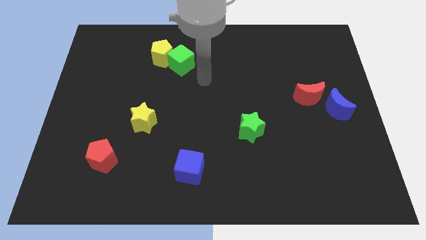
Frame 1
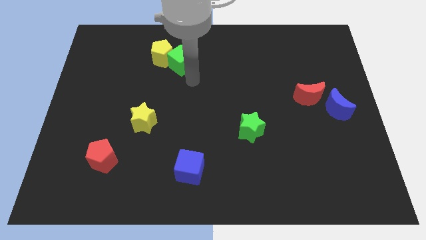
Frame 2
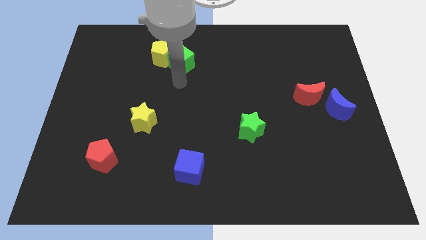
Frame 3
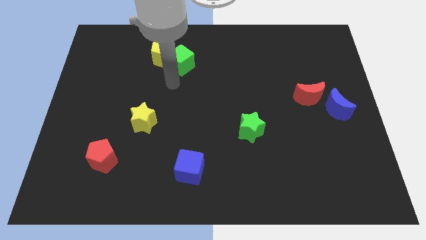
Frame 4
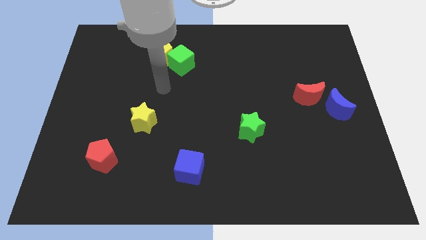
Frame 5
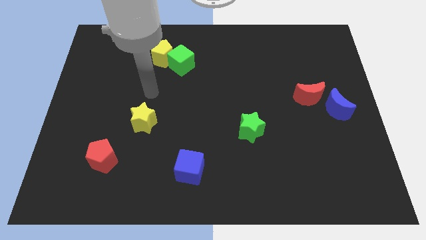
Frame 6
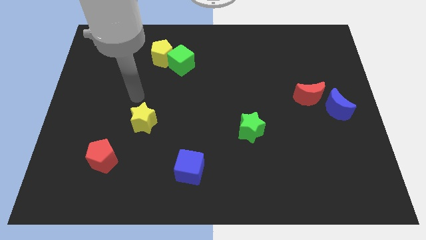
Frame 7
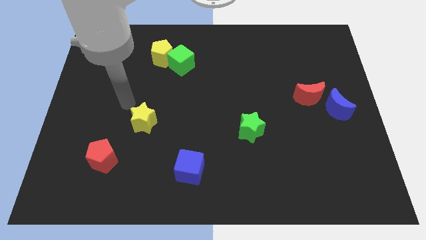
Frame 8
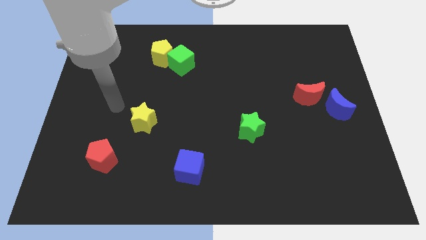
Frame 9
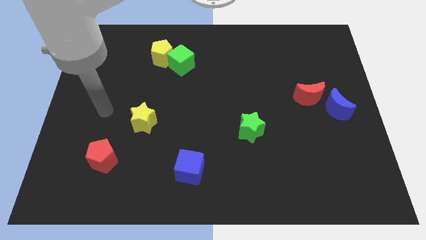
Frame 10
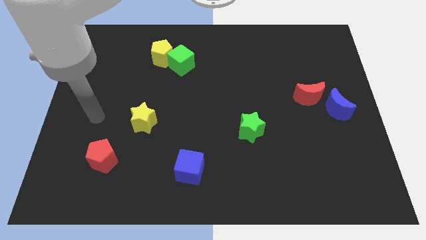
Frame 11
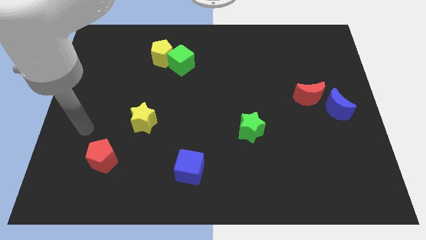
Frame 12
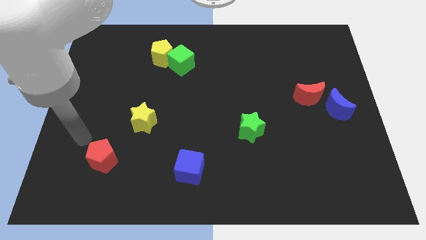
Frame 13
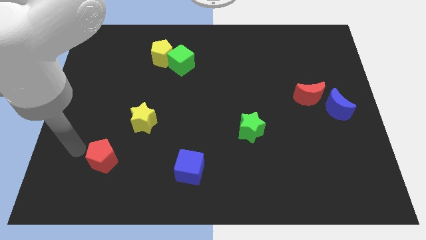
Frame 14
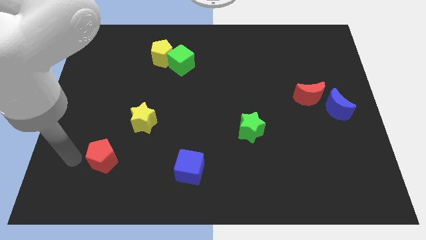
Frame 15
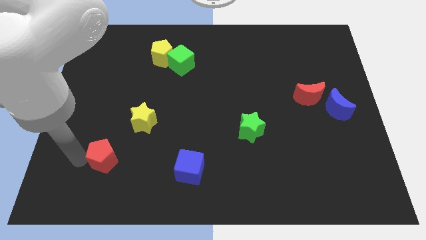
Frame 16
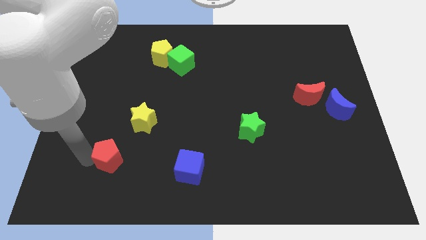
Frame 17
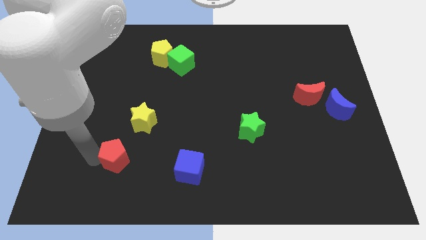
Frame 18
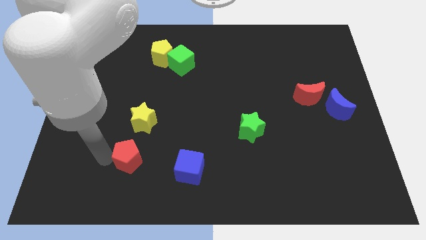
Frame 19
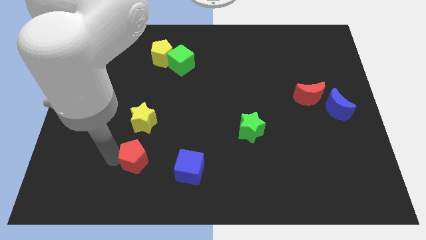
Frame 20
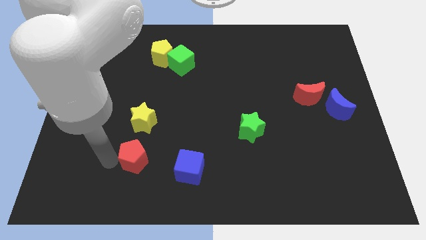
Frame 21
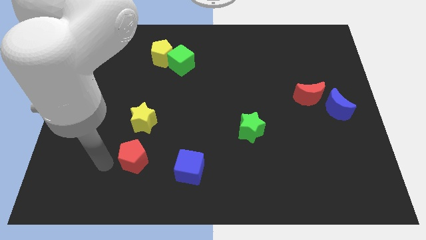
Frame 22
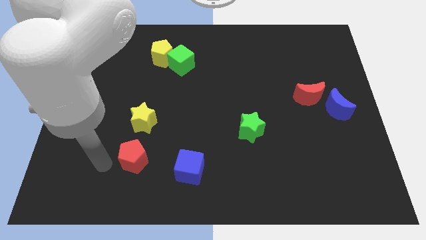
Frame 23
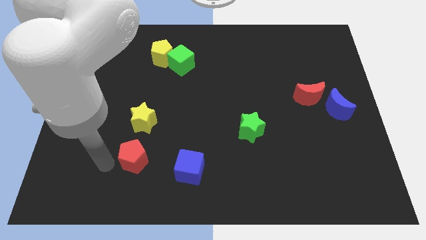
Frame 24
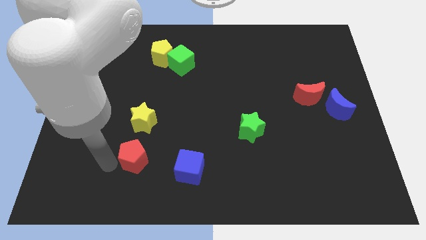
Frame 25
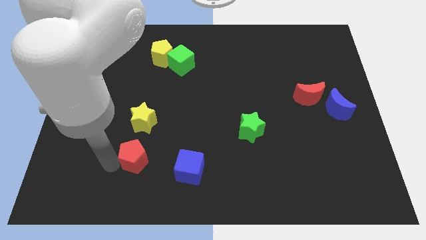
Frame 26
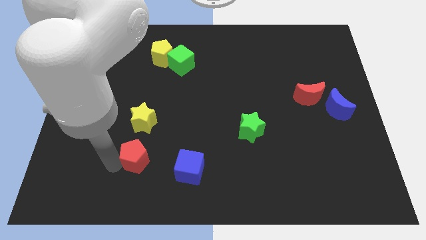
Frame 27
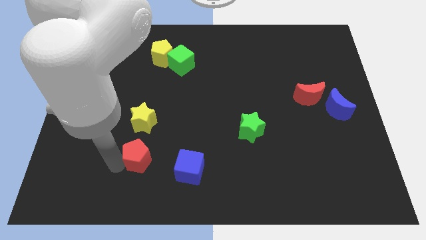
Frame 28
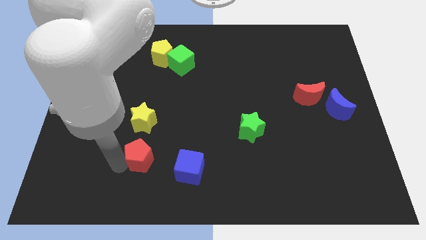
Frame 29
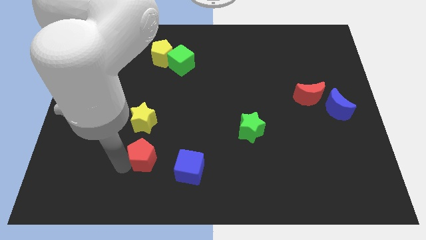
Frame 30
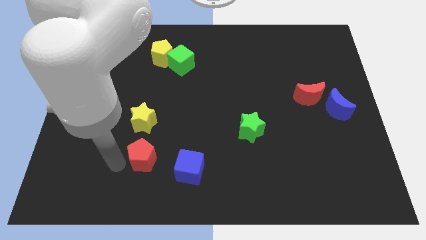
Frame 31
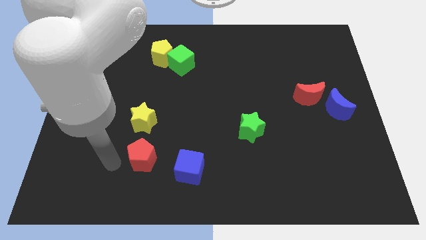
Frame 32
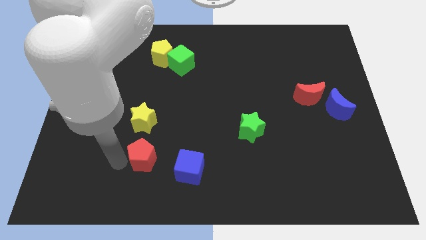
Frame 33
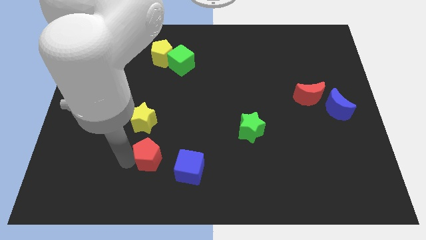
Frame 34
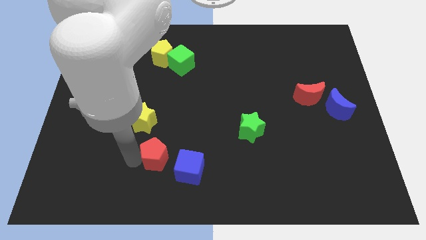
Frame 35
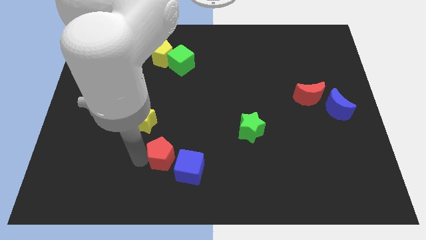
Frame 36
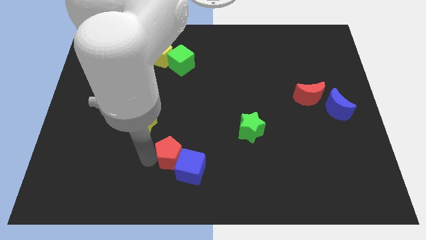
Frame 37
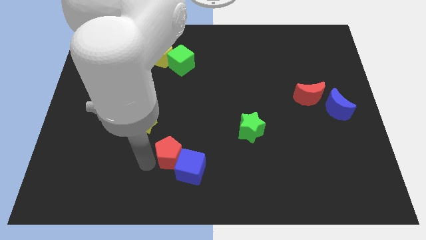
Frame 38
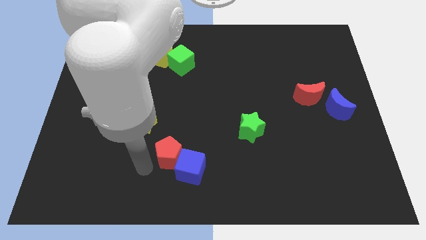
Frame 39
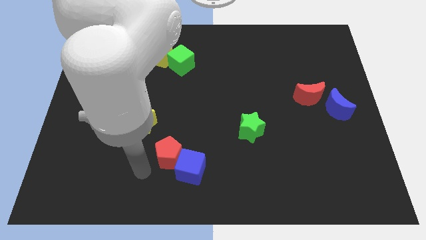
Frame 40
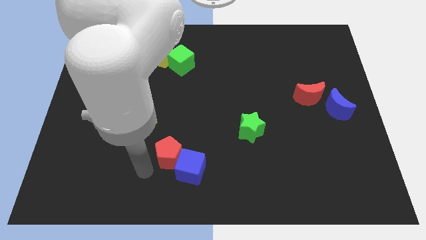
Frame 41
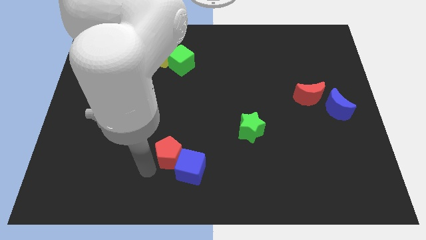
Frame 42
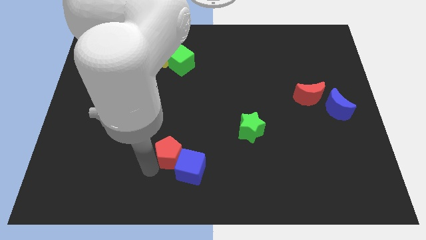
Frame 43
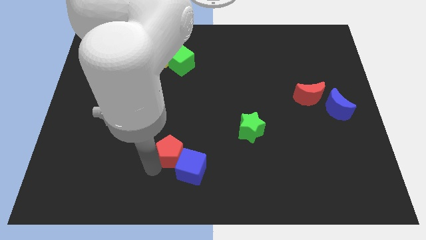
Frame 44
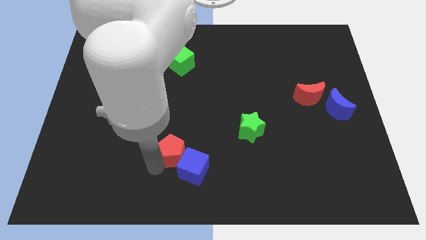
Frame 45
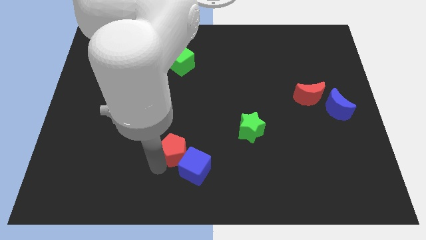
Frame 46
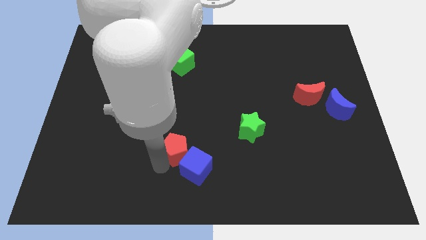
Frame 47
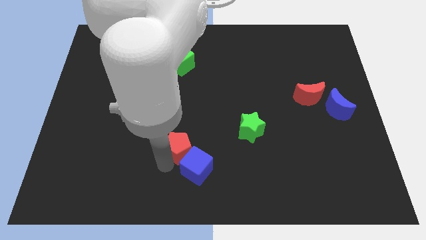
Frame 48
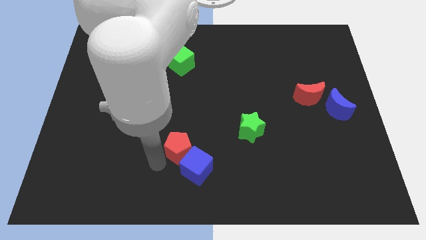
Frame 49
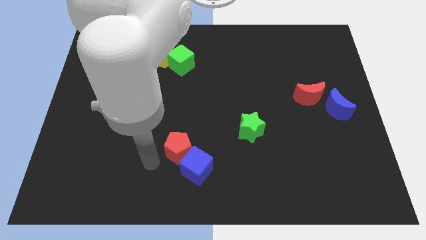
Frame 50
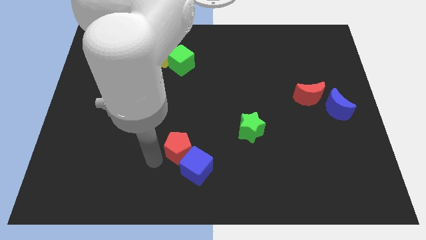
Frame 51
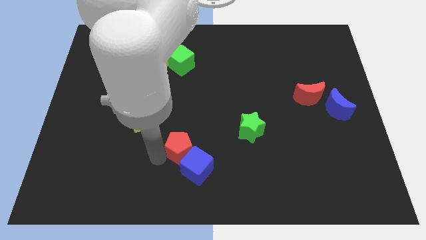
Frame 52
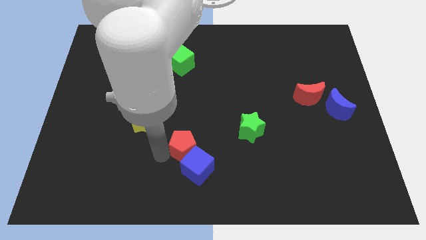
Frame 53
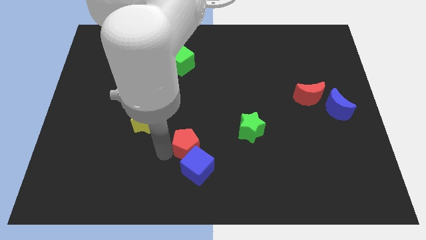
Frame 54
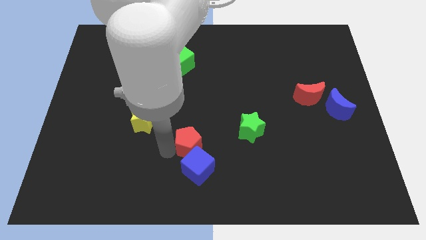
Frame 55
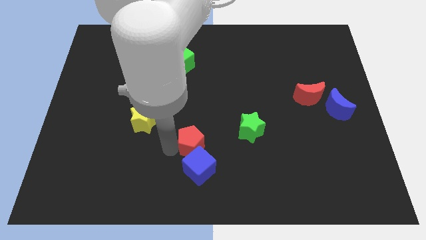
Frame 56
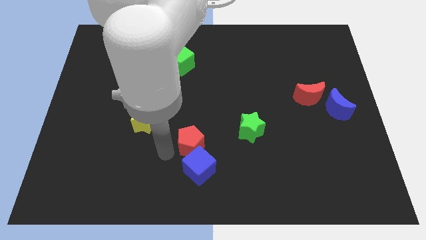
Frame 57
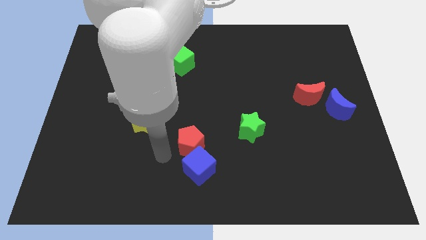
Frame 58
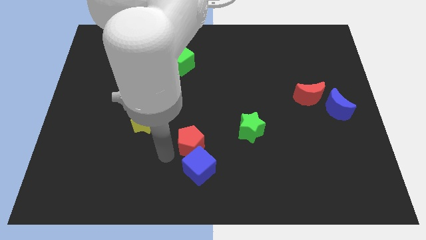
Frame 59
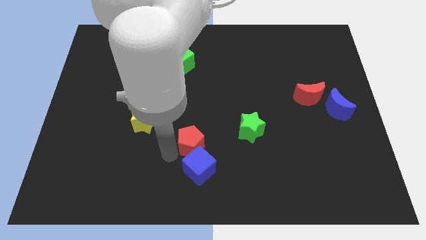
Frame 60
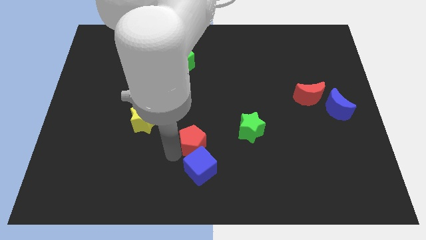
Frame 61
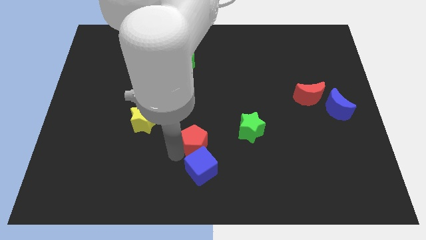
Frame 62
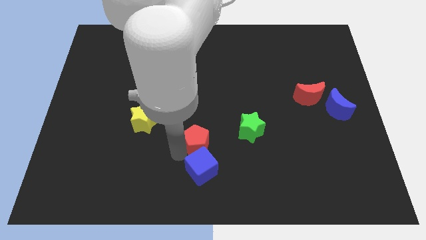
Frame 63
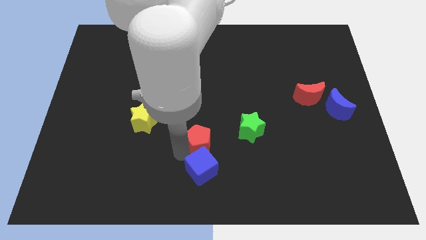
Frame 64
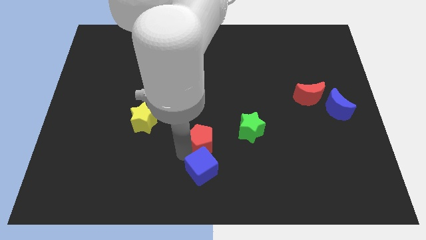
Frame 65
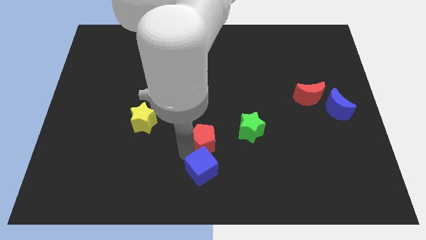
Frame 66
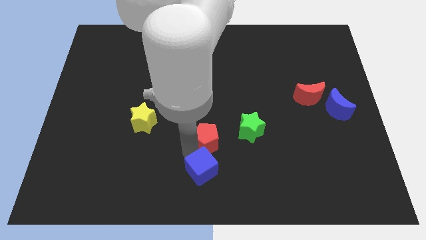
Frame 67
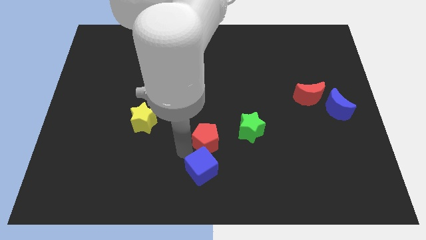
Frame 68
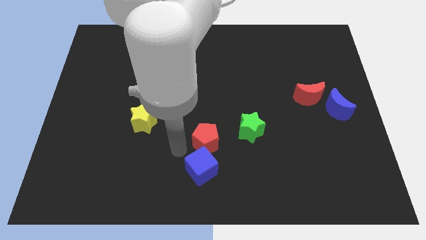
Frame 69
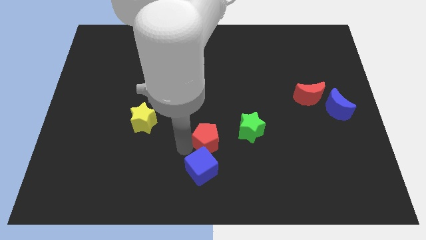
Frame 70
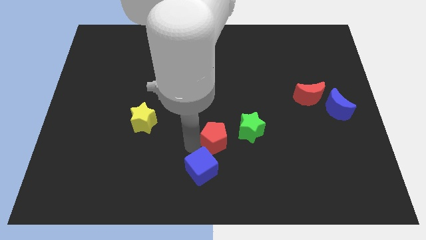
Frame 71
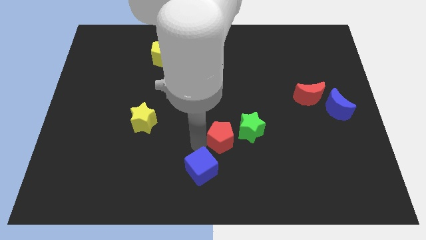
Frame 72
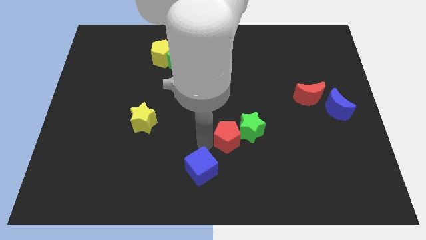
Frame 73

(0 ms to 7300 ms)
move the red pentagon to the green star

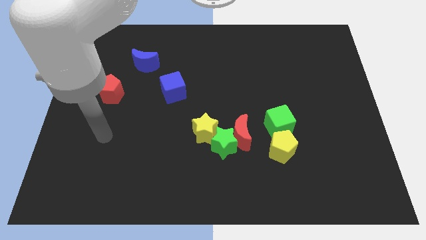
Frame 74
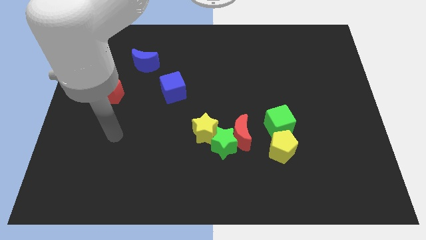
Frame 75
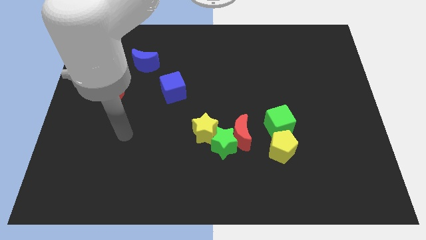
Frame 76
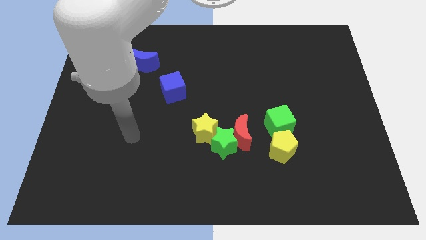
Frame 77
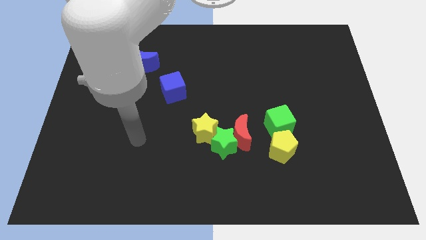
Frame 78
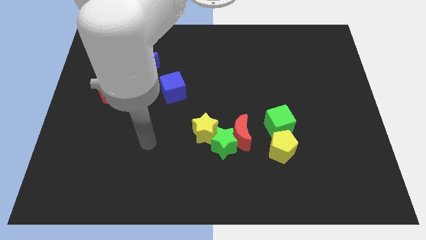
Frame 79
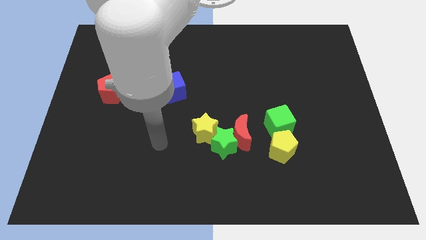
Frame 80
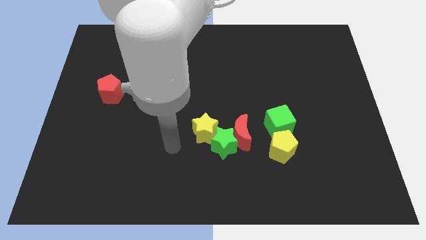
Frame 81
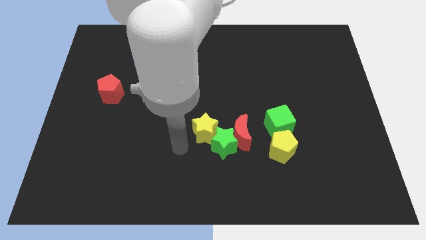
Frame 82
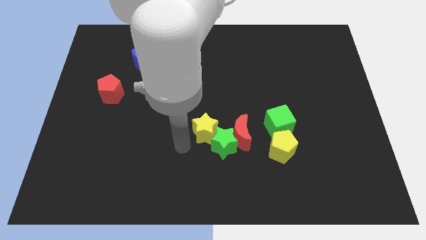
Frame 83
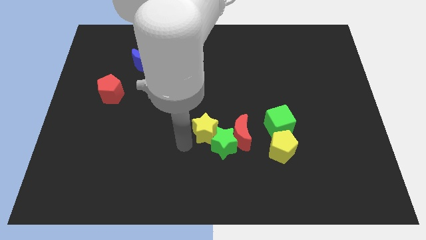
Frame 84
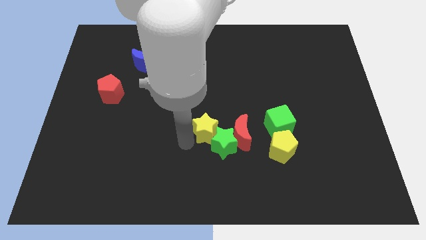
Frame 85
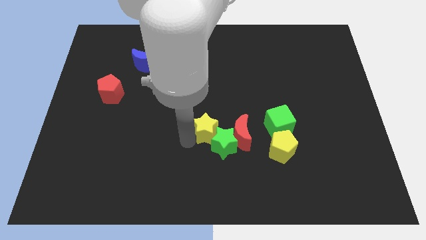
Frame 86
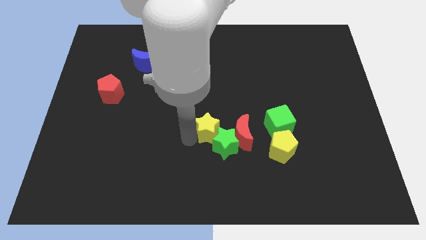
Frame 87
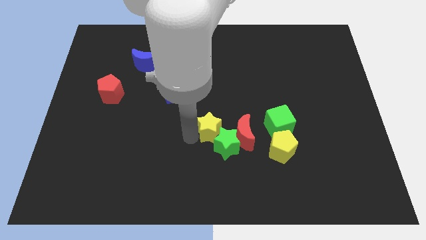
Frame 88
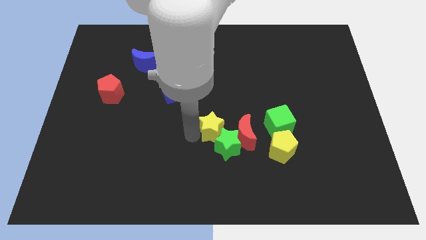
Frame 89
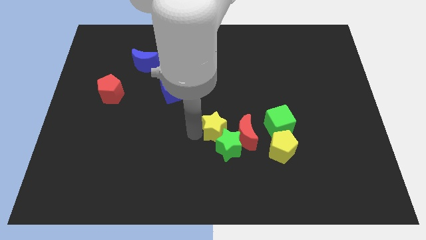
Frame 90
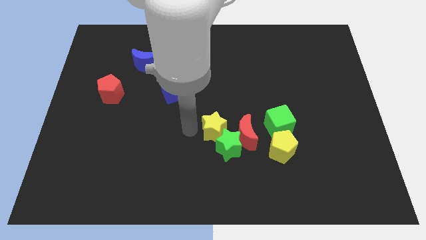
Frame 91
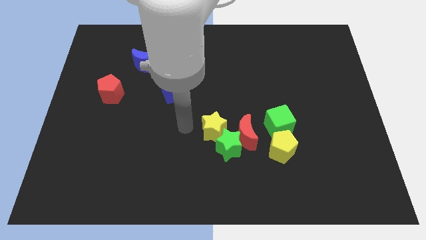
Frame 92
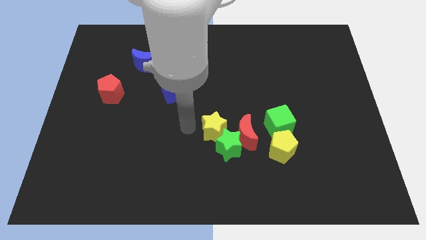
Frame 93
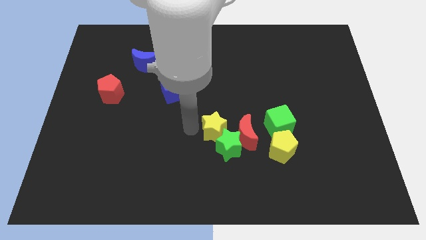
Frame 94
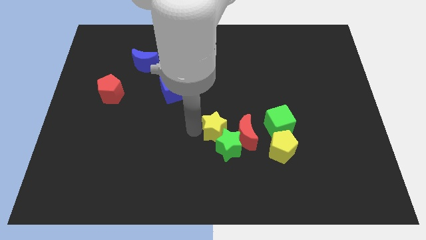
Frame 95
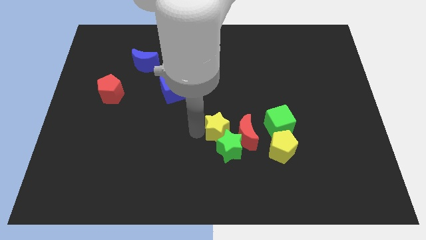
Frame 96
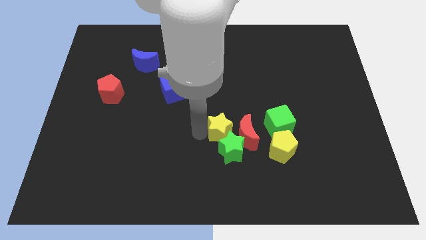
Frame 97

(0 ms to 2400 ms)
push the yellow star close to the red moon
